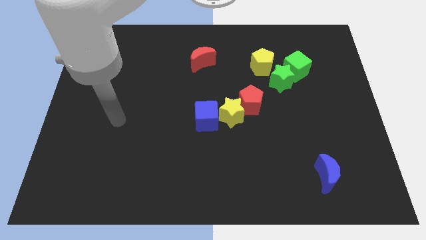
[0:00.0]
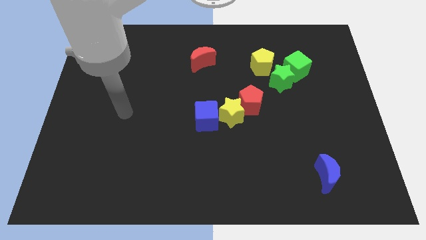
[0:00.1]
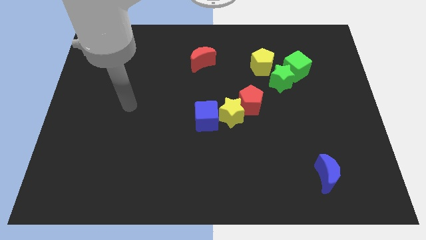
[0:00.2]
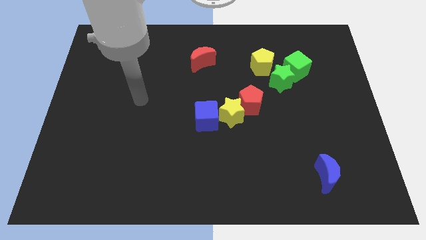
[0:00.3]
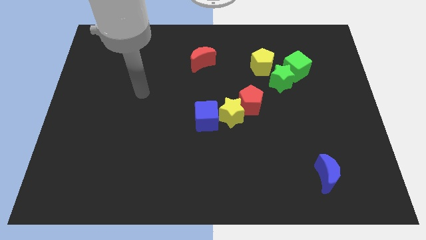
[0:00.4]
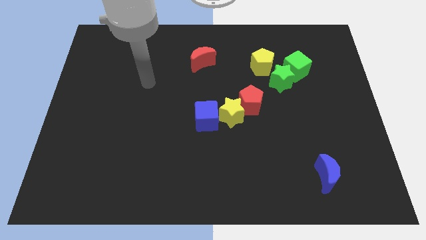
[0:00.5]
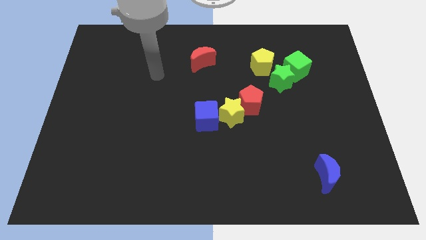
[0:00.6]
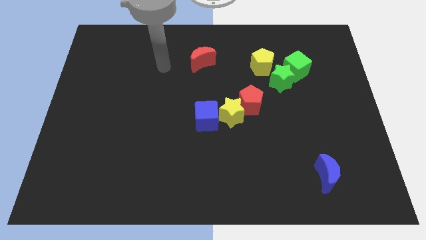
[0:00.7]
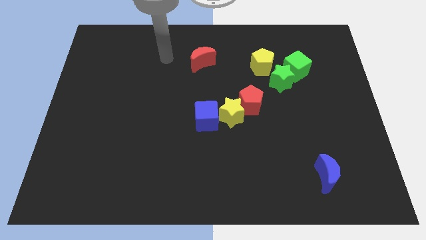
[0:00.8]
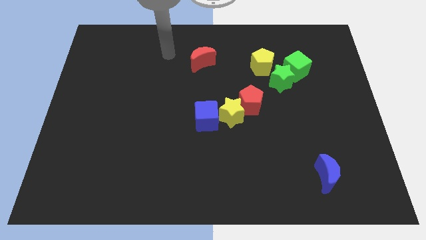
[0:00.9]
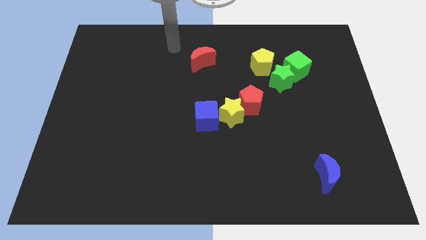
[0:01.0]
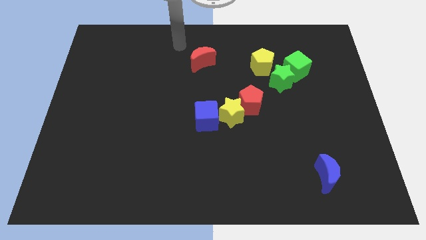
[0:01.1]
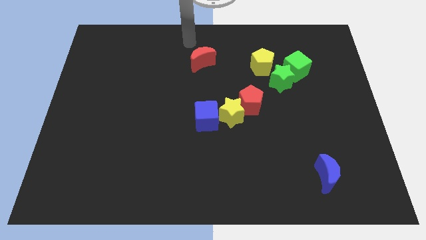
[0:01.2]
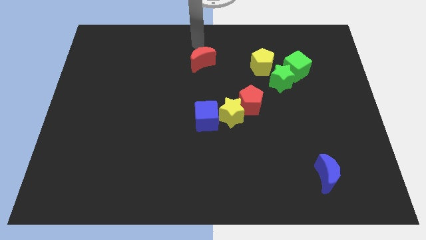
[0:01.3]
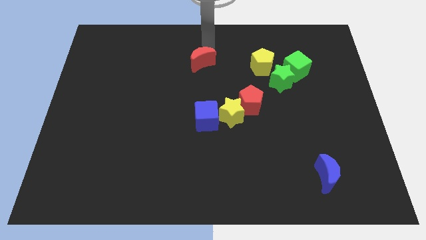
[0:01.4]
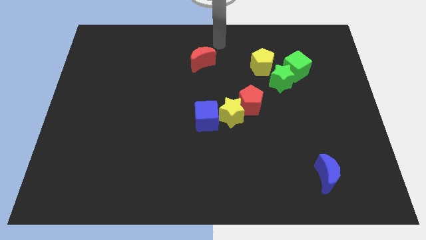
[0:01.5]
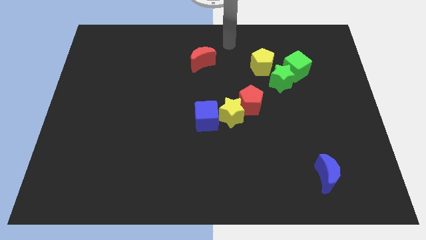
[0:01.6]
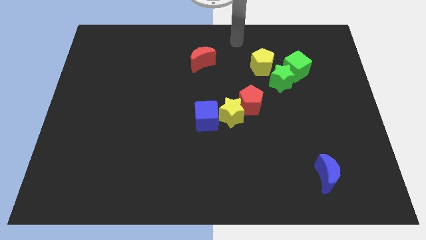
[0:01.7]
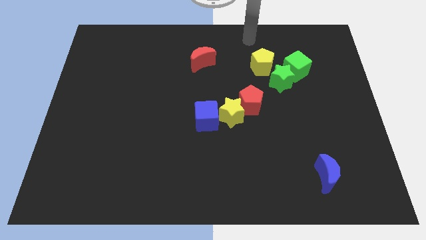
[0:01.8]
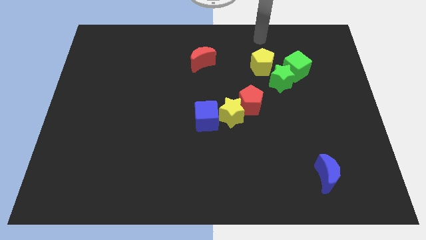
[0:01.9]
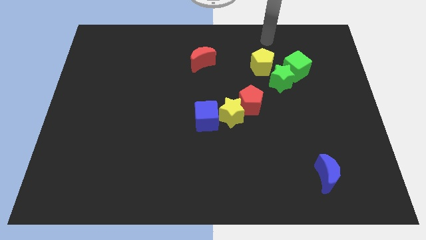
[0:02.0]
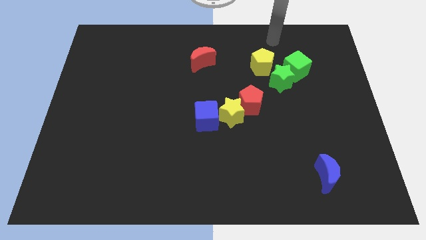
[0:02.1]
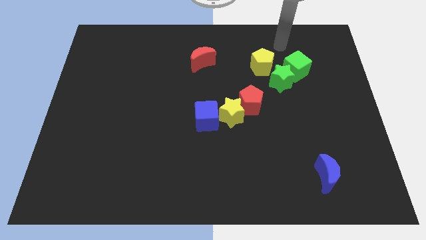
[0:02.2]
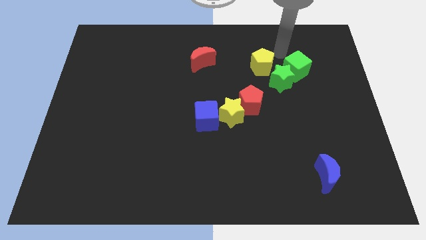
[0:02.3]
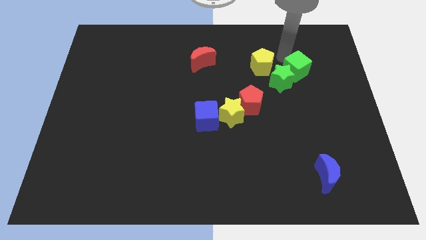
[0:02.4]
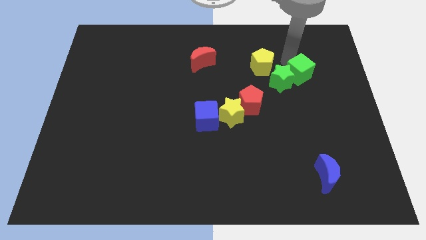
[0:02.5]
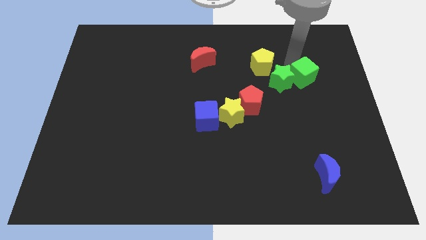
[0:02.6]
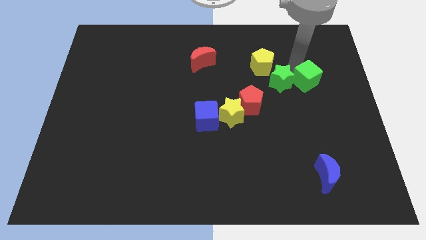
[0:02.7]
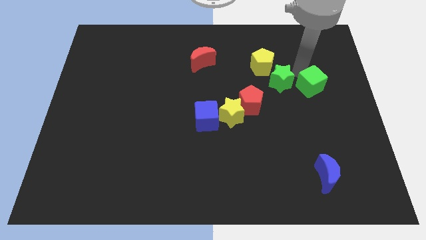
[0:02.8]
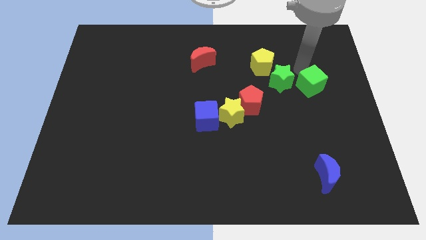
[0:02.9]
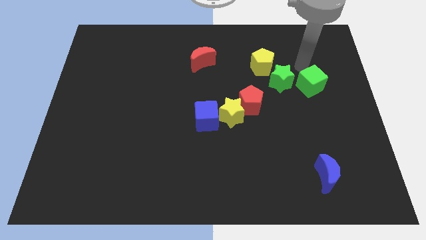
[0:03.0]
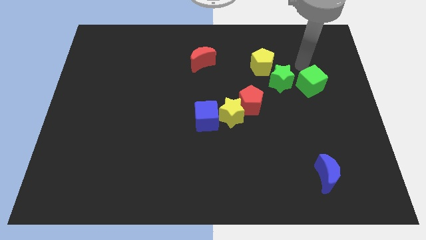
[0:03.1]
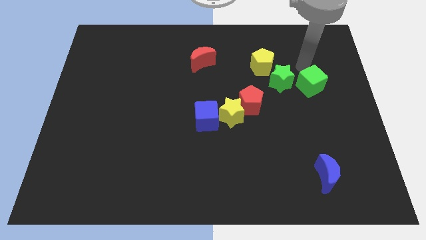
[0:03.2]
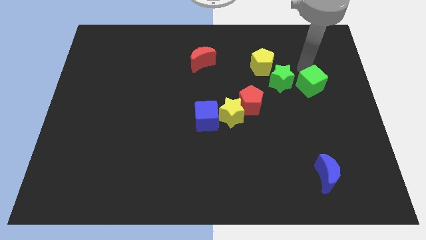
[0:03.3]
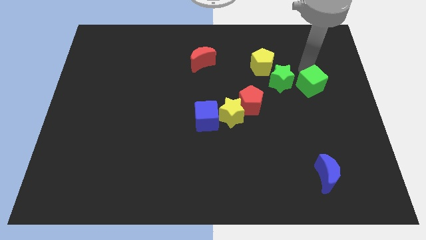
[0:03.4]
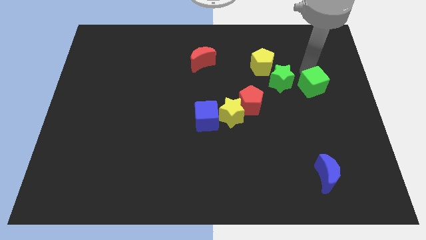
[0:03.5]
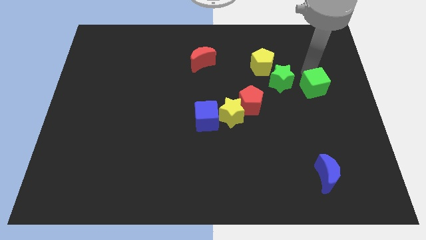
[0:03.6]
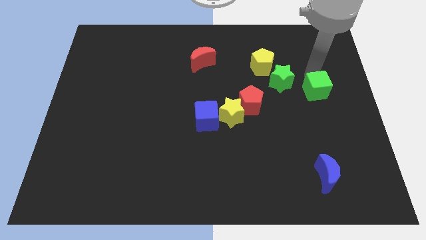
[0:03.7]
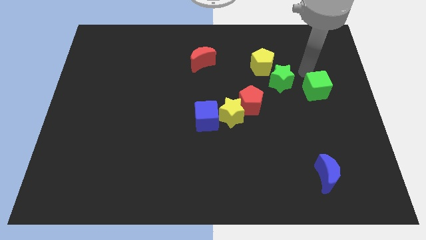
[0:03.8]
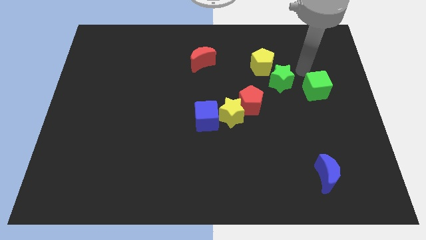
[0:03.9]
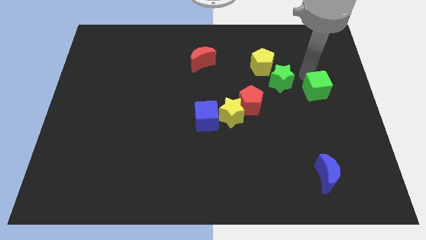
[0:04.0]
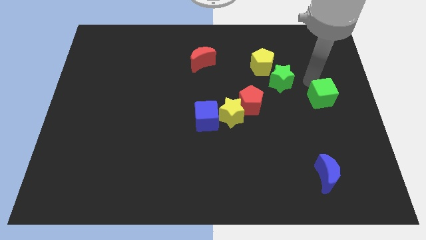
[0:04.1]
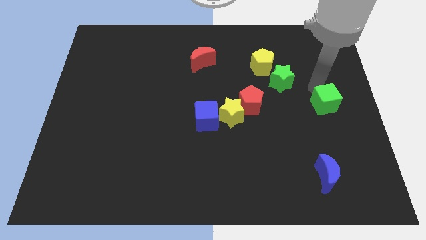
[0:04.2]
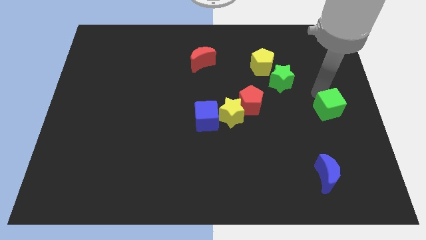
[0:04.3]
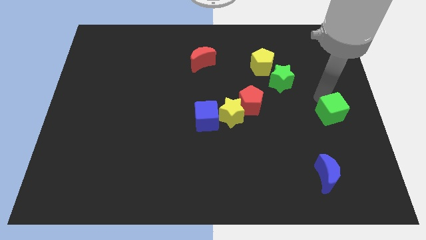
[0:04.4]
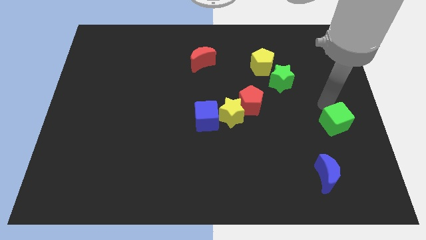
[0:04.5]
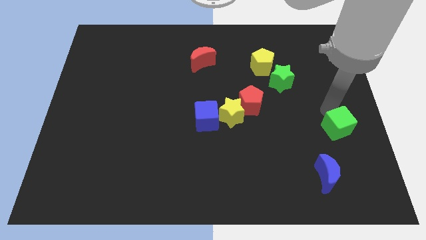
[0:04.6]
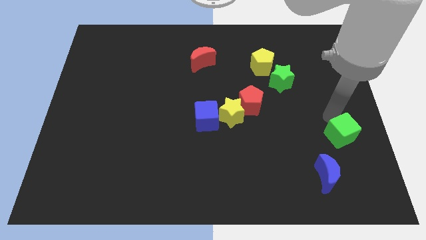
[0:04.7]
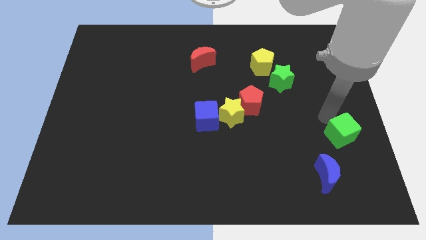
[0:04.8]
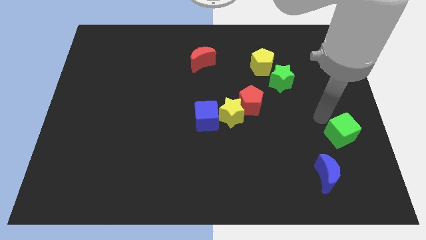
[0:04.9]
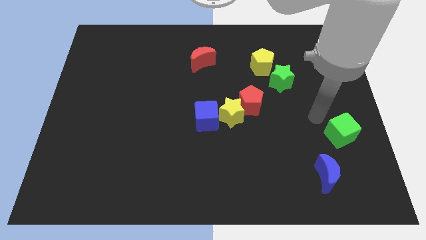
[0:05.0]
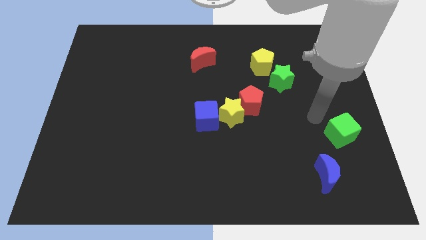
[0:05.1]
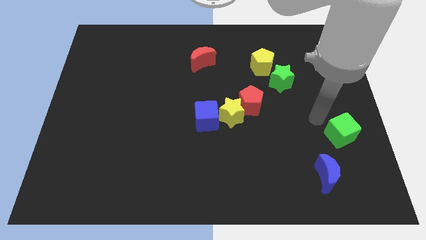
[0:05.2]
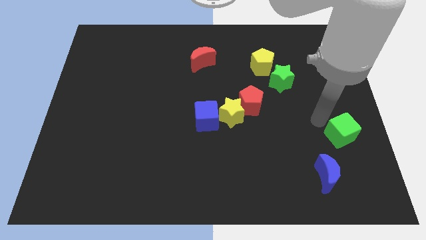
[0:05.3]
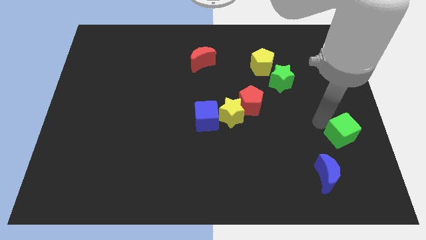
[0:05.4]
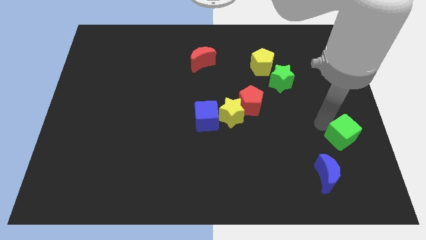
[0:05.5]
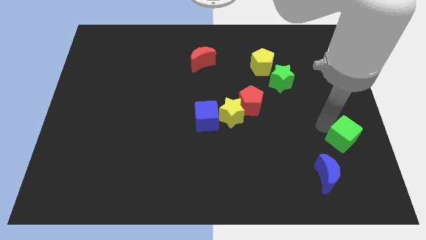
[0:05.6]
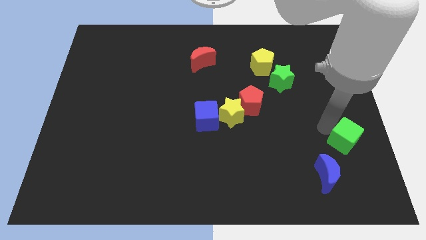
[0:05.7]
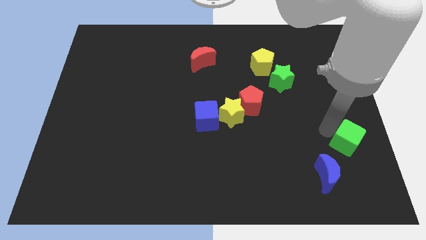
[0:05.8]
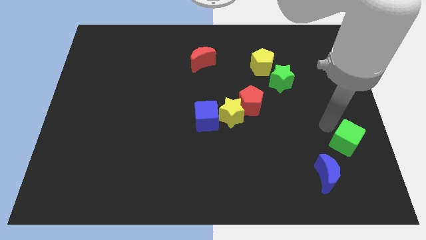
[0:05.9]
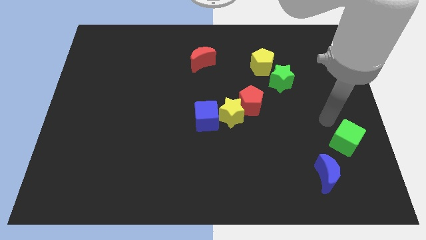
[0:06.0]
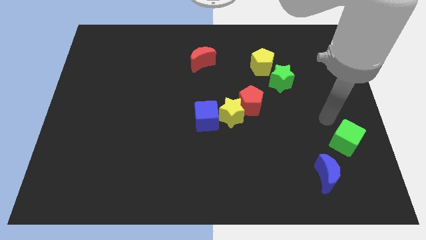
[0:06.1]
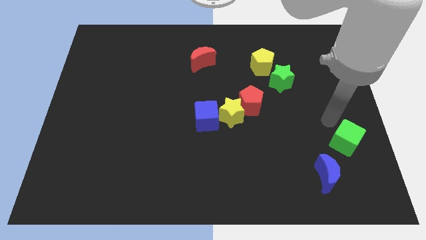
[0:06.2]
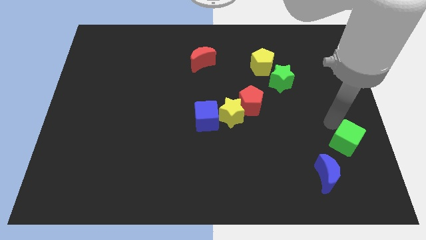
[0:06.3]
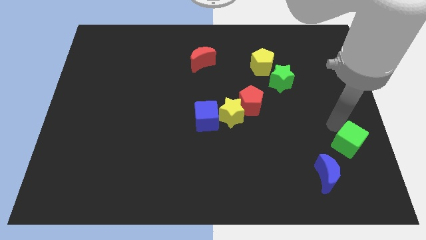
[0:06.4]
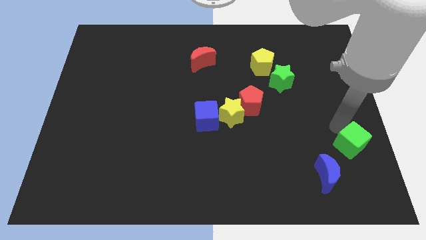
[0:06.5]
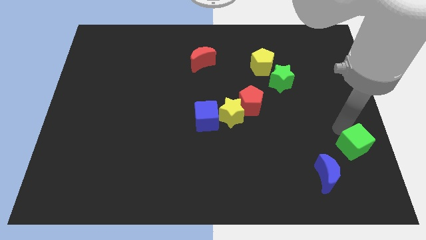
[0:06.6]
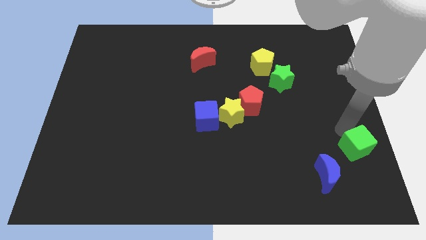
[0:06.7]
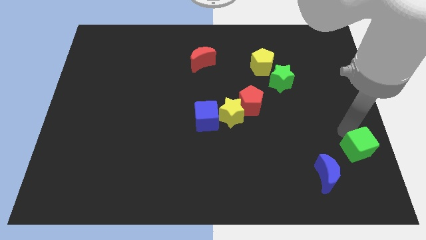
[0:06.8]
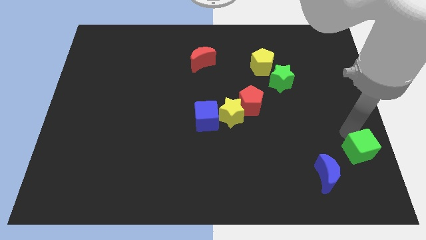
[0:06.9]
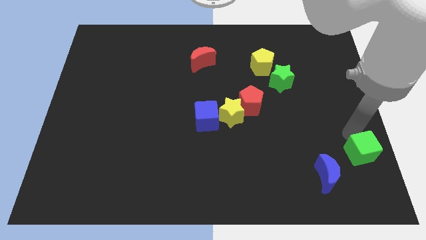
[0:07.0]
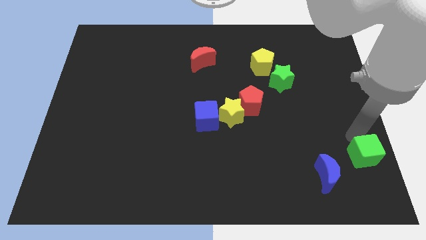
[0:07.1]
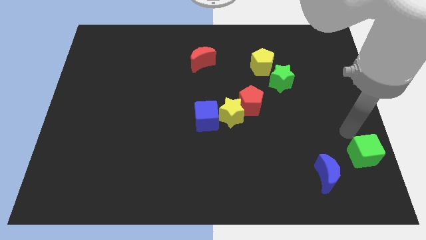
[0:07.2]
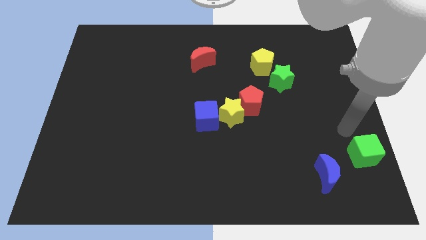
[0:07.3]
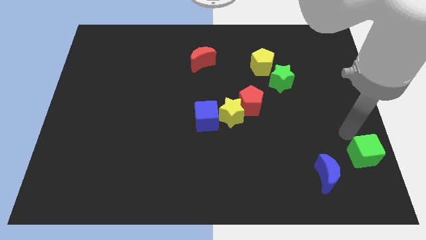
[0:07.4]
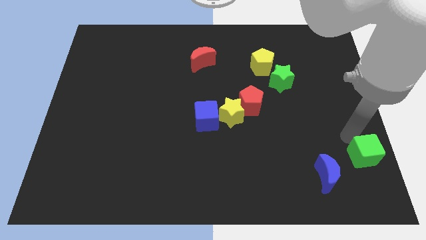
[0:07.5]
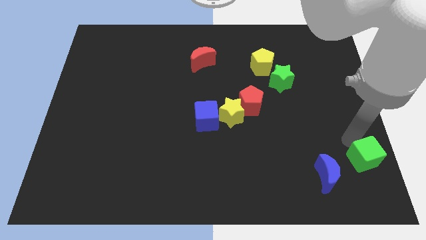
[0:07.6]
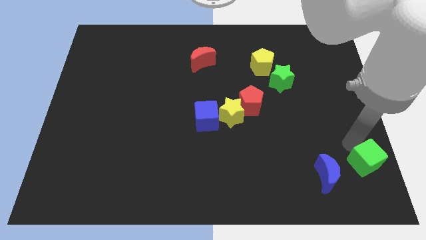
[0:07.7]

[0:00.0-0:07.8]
slide the green cube to the bottom right corner
